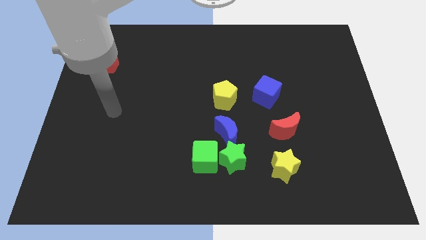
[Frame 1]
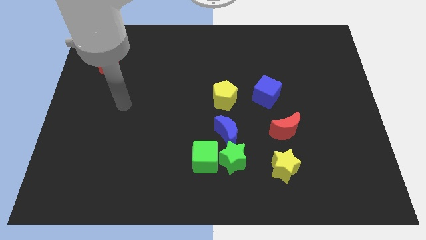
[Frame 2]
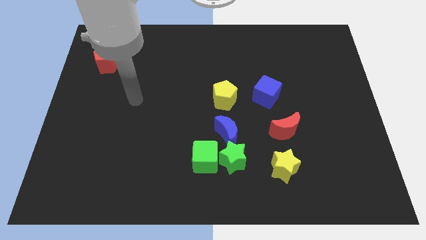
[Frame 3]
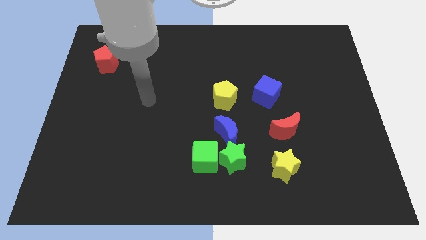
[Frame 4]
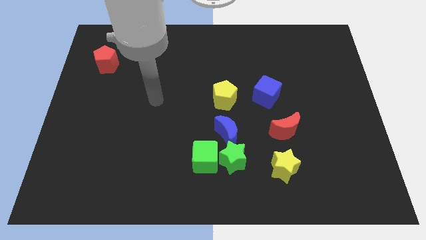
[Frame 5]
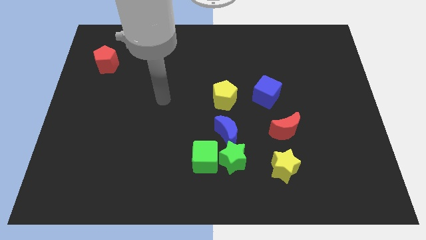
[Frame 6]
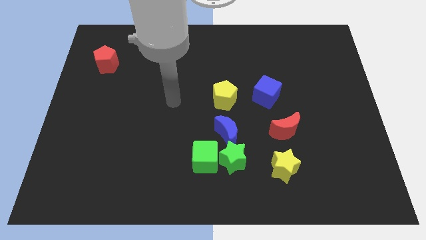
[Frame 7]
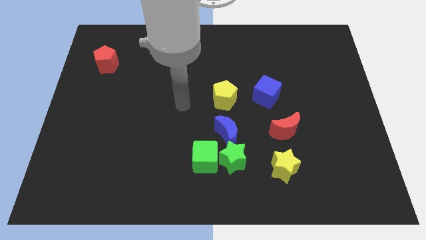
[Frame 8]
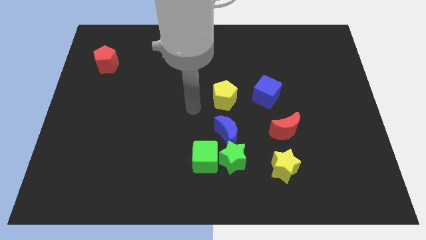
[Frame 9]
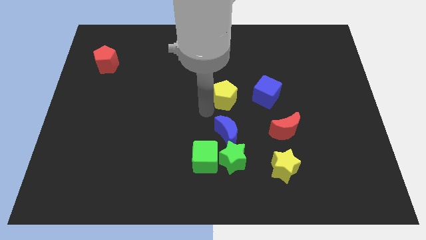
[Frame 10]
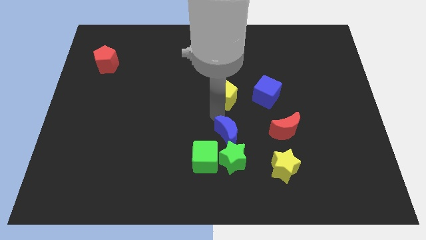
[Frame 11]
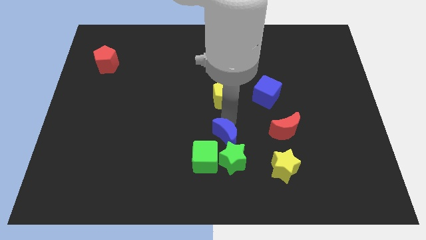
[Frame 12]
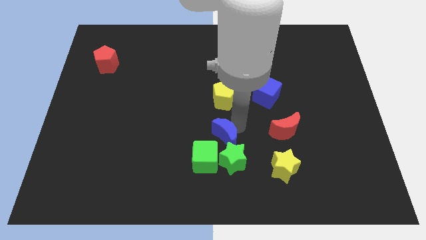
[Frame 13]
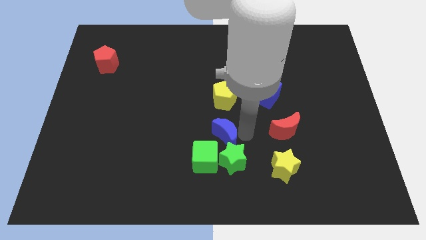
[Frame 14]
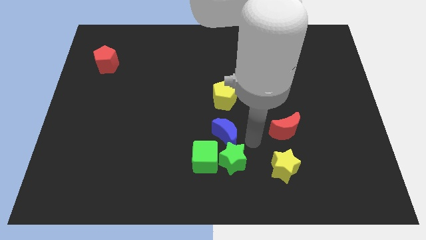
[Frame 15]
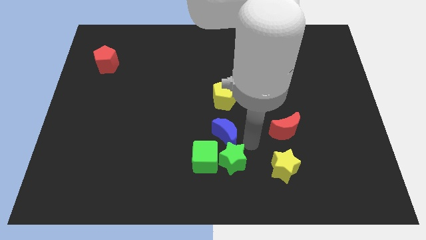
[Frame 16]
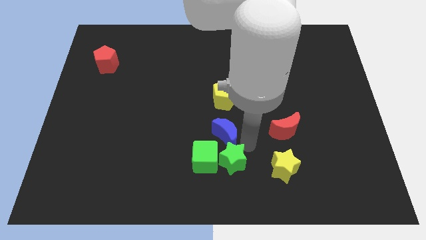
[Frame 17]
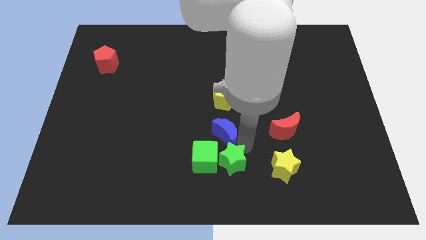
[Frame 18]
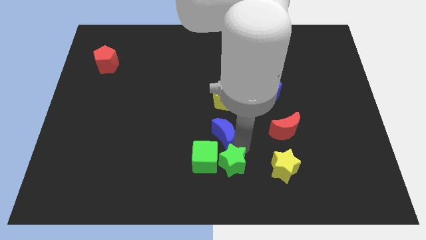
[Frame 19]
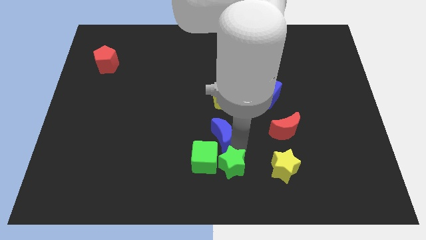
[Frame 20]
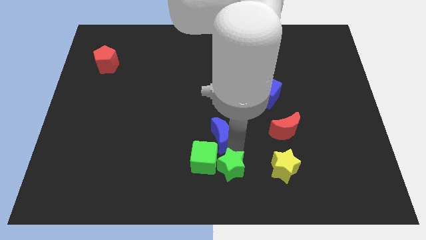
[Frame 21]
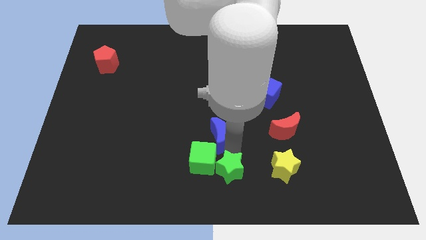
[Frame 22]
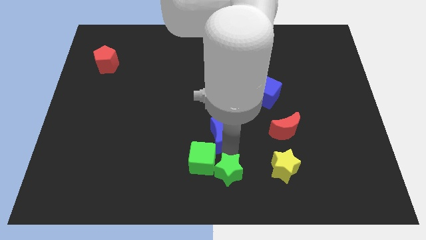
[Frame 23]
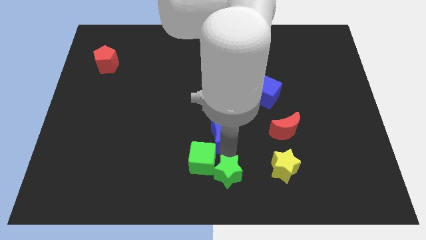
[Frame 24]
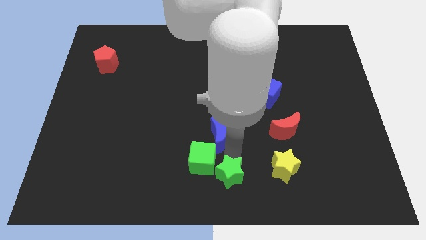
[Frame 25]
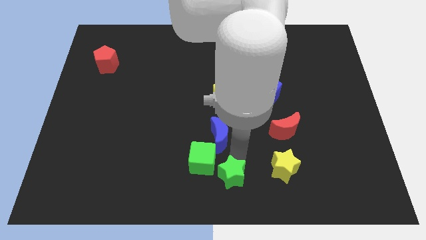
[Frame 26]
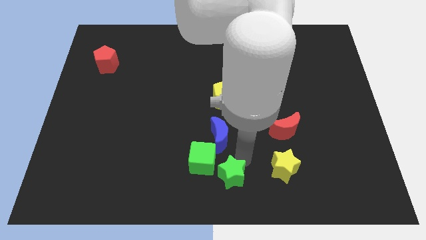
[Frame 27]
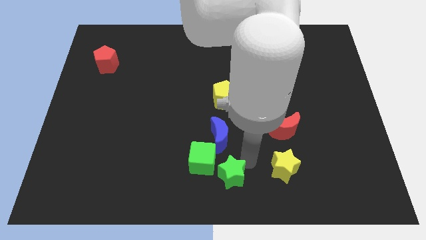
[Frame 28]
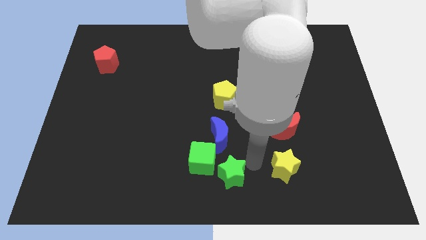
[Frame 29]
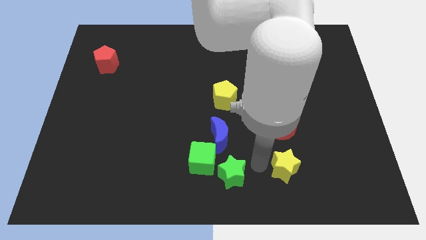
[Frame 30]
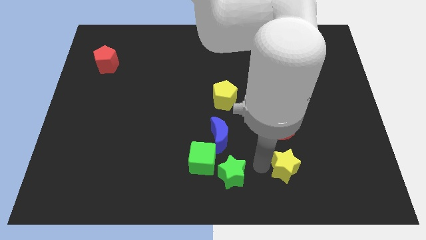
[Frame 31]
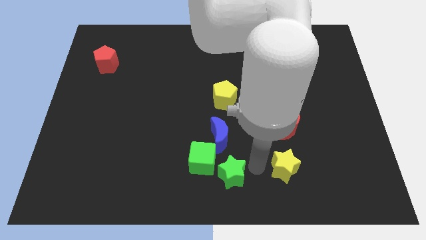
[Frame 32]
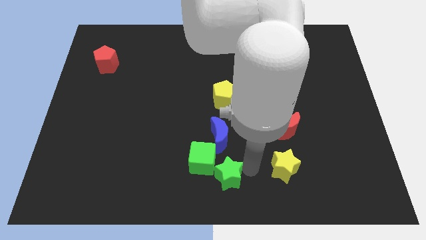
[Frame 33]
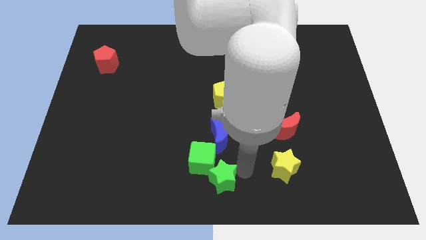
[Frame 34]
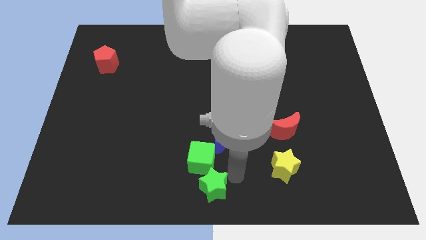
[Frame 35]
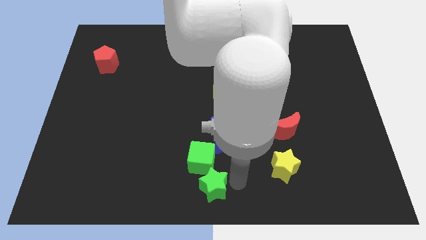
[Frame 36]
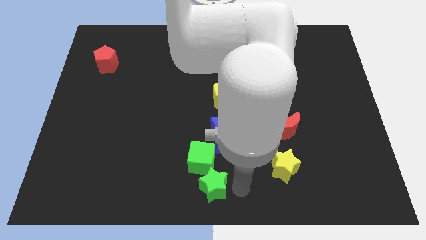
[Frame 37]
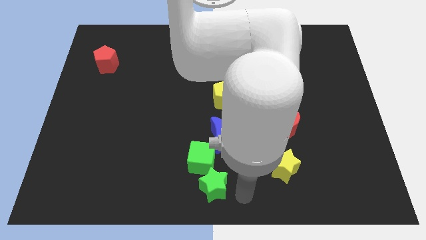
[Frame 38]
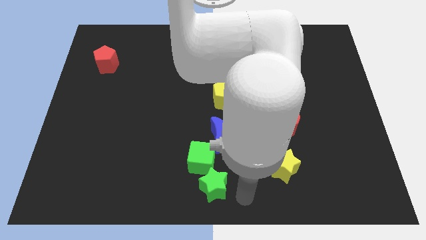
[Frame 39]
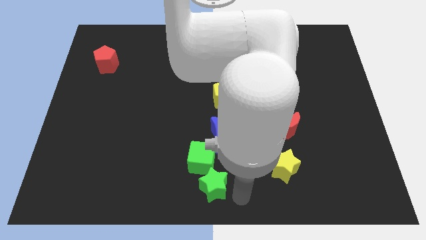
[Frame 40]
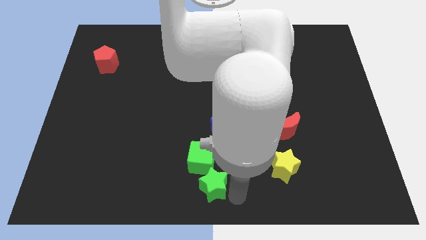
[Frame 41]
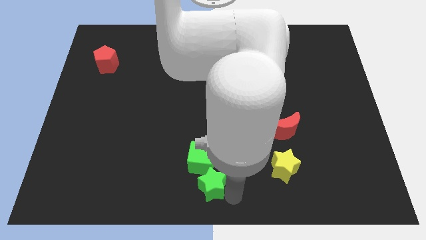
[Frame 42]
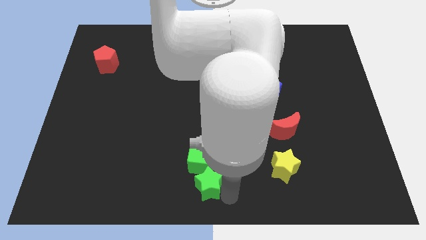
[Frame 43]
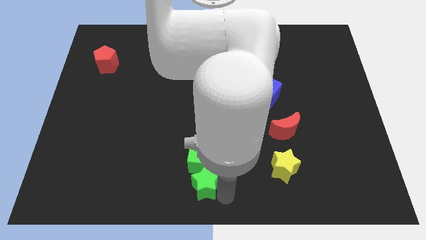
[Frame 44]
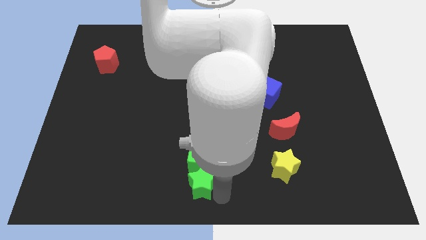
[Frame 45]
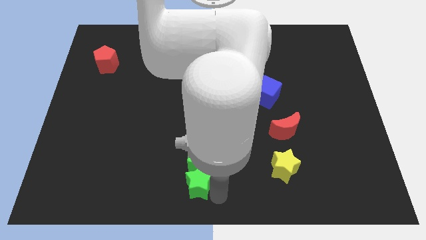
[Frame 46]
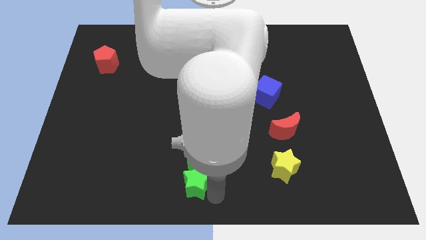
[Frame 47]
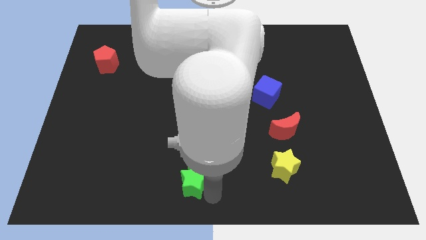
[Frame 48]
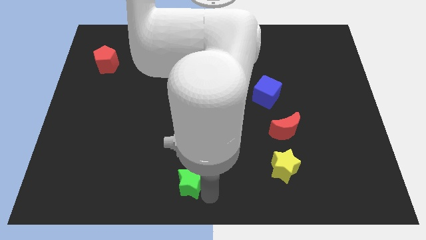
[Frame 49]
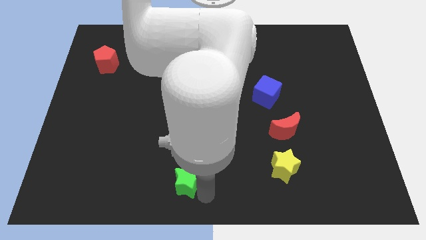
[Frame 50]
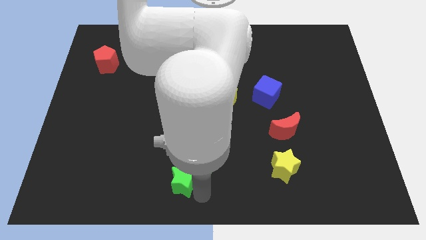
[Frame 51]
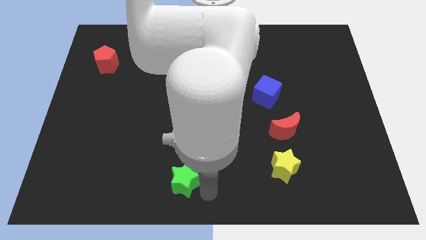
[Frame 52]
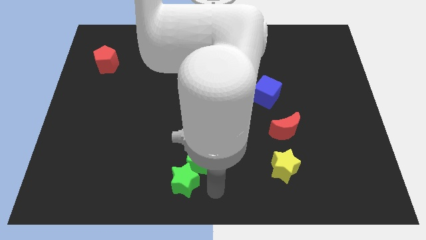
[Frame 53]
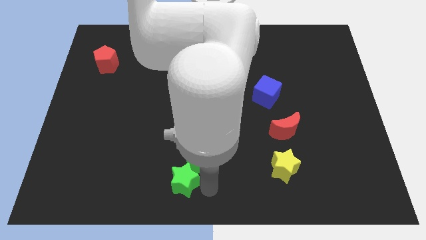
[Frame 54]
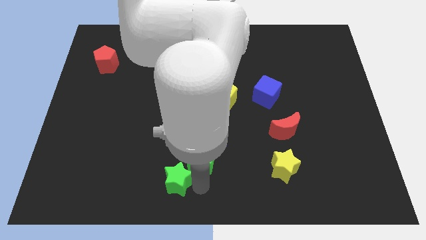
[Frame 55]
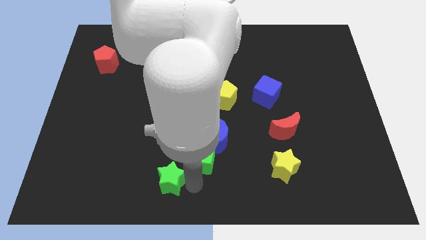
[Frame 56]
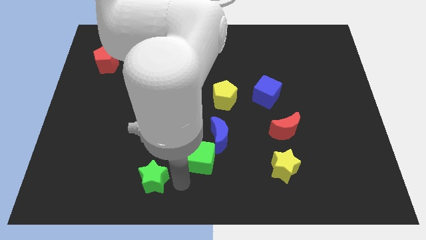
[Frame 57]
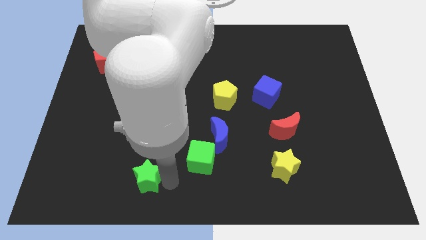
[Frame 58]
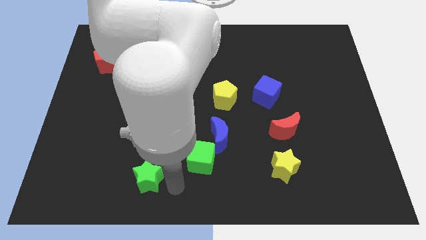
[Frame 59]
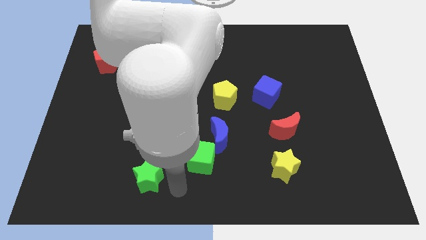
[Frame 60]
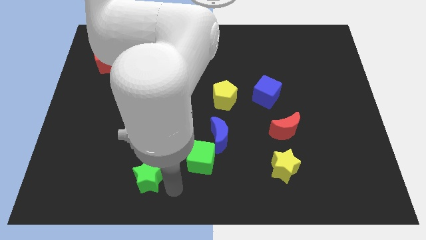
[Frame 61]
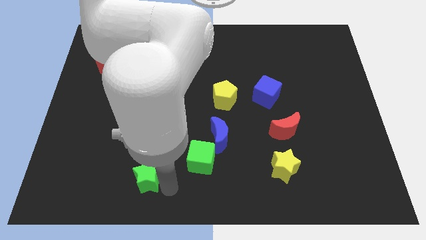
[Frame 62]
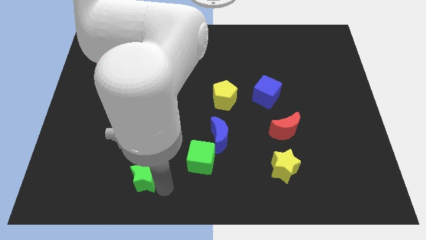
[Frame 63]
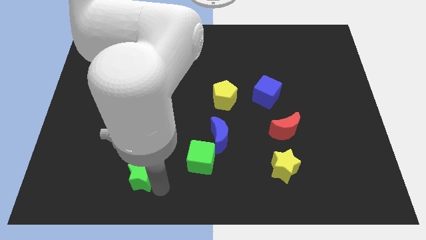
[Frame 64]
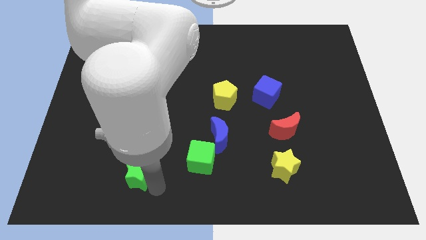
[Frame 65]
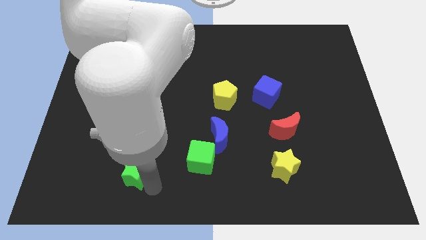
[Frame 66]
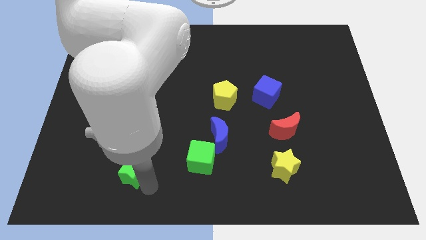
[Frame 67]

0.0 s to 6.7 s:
slide the green star left

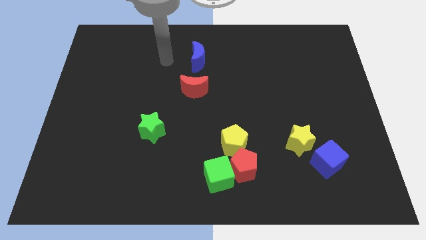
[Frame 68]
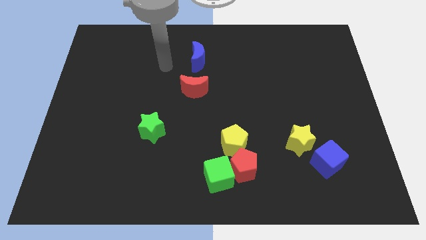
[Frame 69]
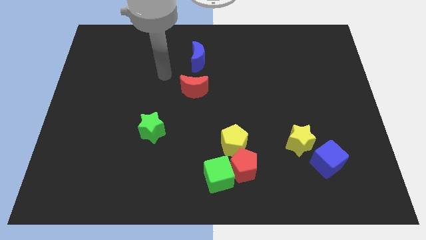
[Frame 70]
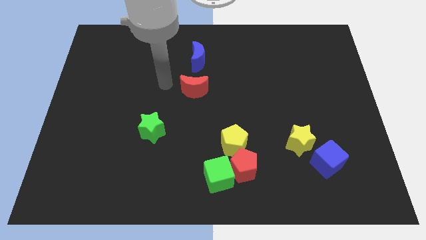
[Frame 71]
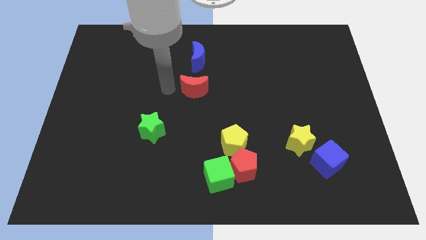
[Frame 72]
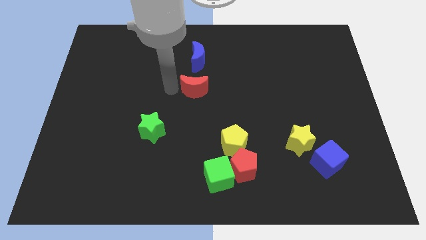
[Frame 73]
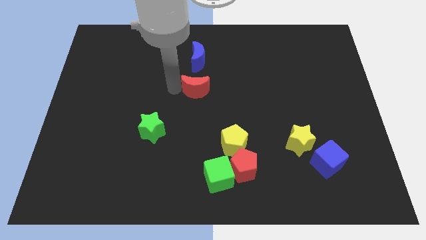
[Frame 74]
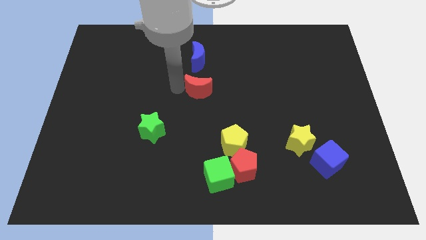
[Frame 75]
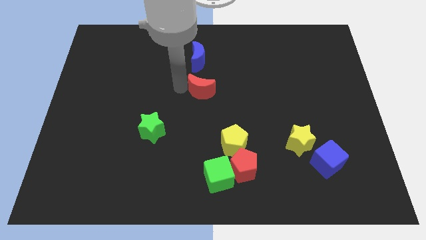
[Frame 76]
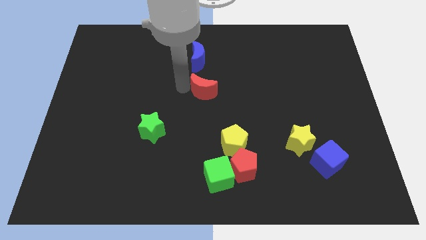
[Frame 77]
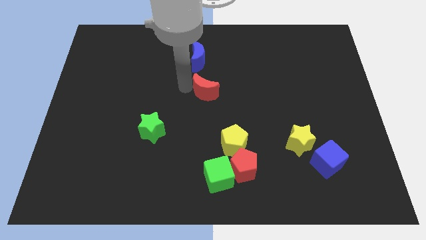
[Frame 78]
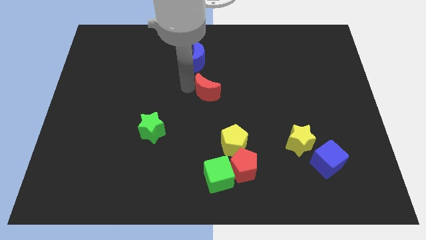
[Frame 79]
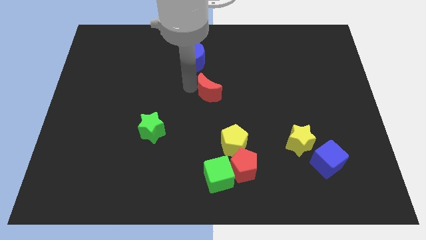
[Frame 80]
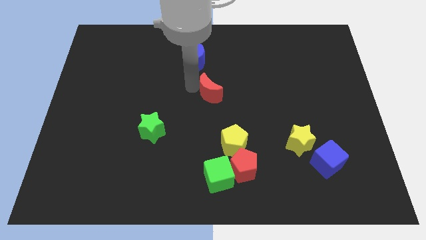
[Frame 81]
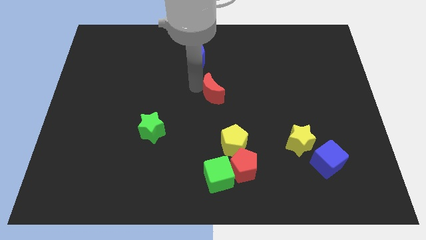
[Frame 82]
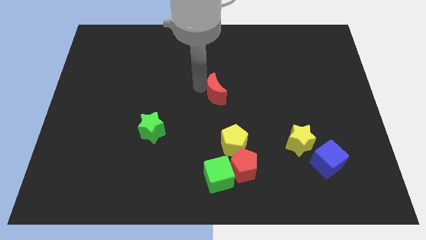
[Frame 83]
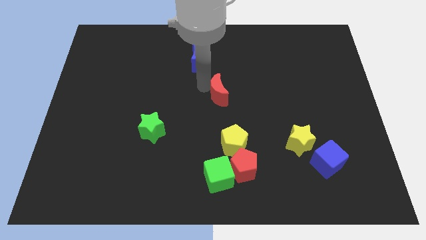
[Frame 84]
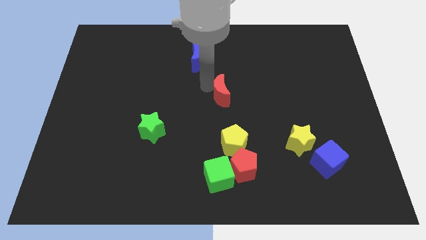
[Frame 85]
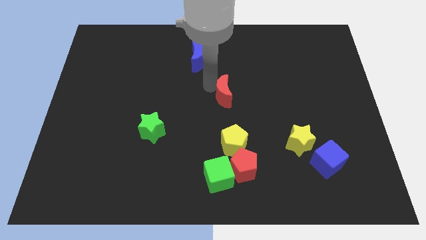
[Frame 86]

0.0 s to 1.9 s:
slightly move the red moon to the right
